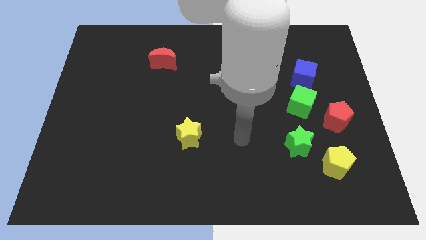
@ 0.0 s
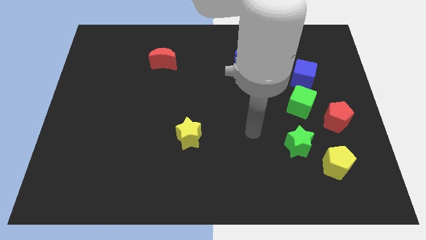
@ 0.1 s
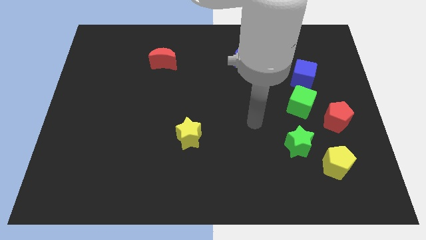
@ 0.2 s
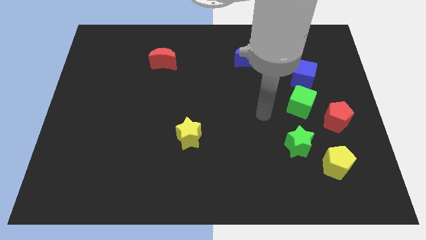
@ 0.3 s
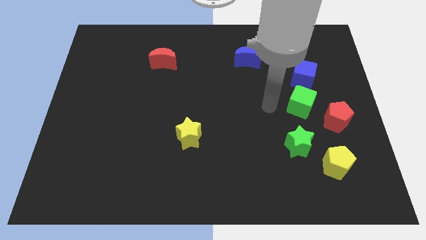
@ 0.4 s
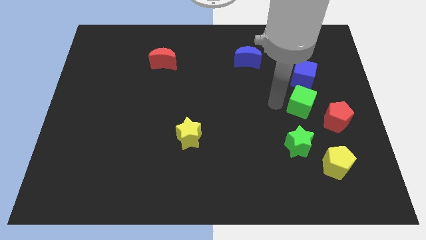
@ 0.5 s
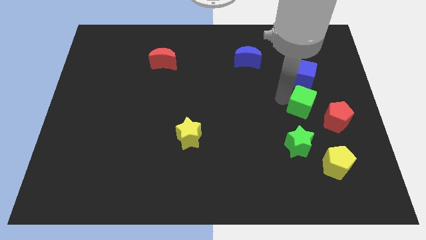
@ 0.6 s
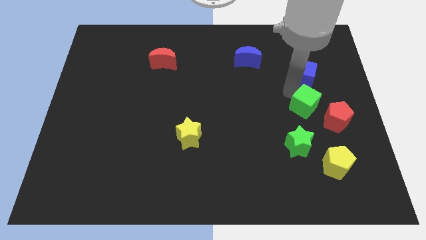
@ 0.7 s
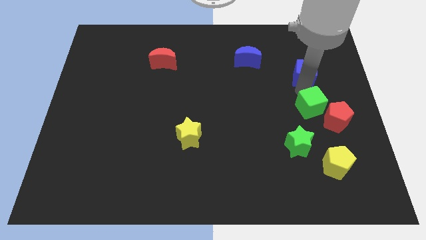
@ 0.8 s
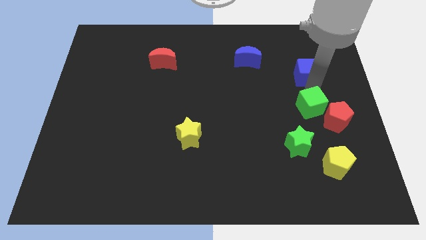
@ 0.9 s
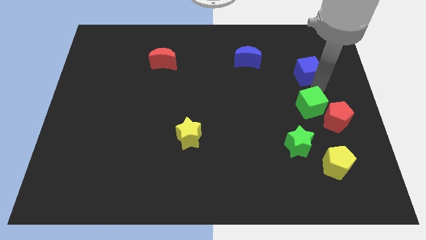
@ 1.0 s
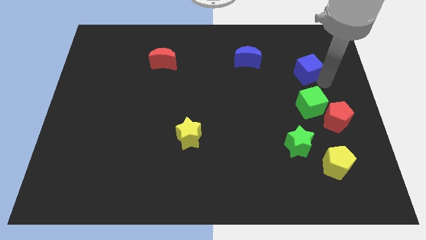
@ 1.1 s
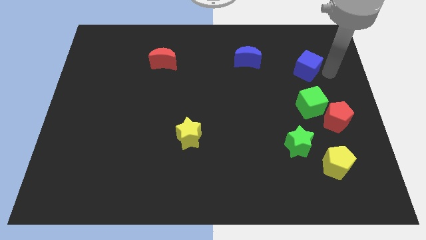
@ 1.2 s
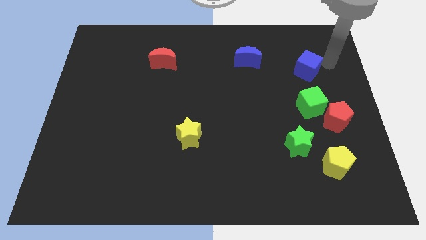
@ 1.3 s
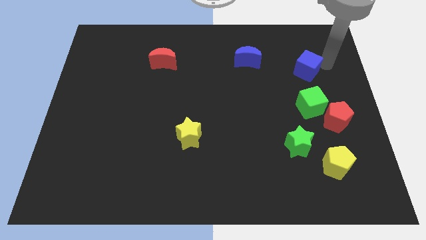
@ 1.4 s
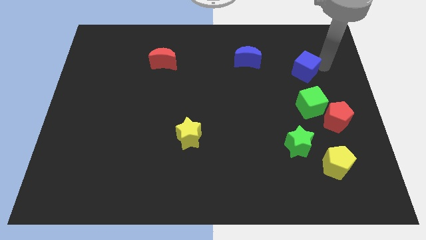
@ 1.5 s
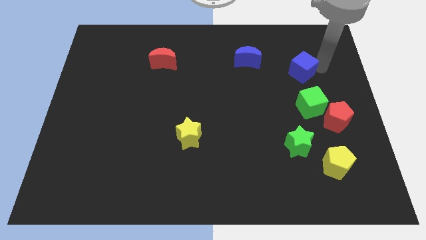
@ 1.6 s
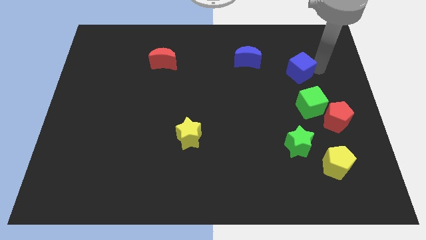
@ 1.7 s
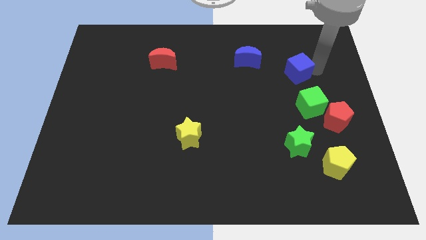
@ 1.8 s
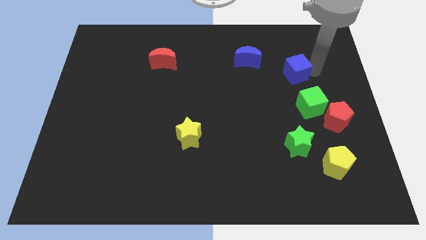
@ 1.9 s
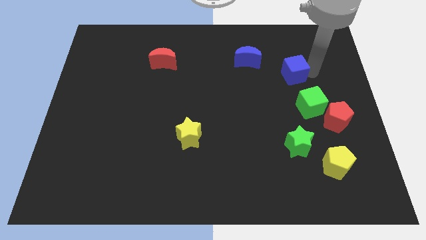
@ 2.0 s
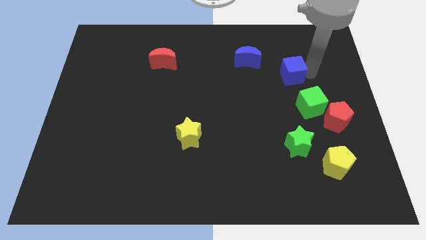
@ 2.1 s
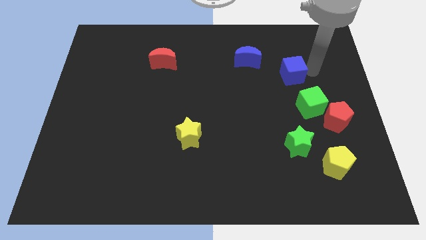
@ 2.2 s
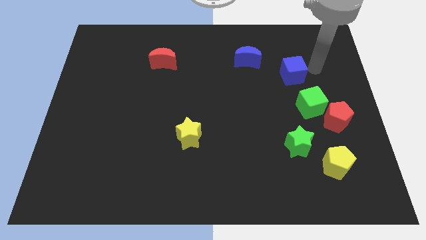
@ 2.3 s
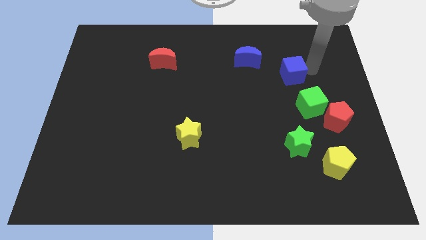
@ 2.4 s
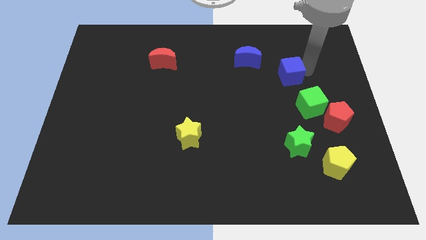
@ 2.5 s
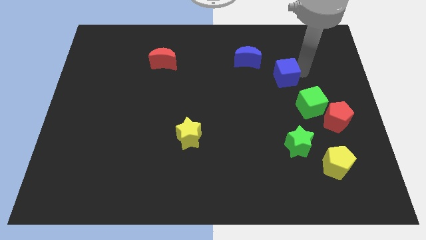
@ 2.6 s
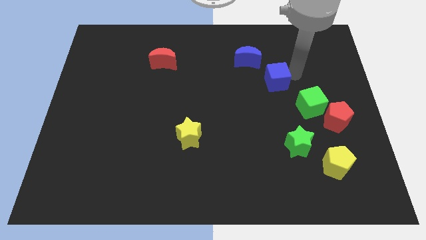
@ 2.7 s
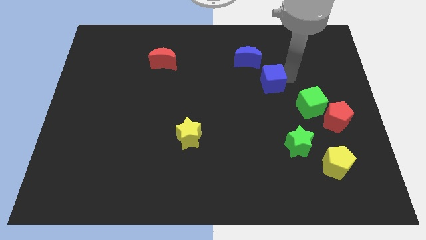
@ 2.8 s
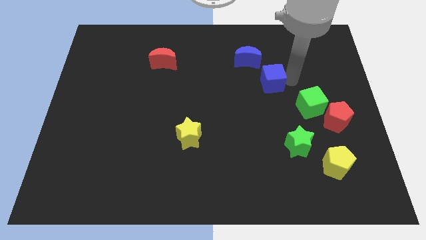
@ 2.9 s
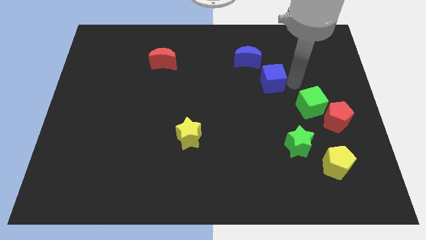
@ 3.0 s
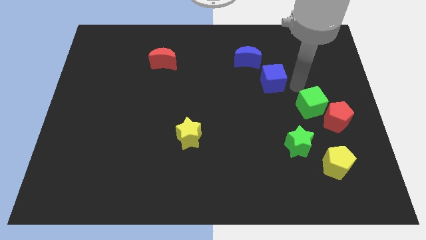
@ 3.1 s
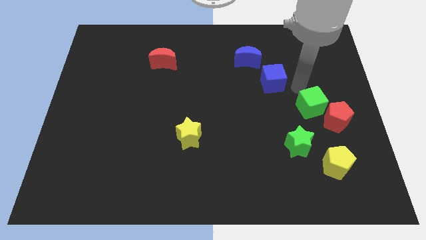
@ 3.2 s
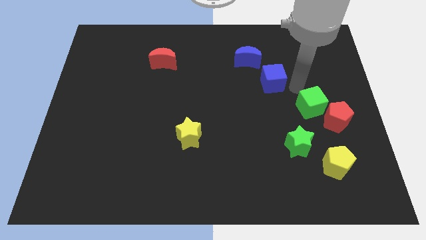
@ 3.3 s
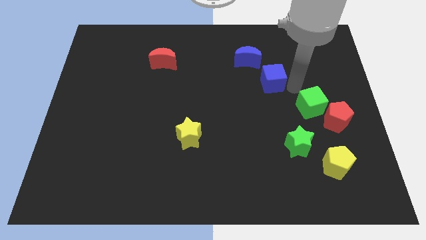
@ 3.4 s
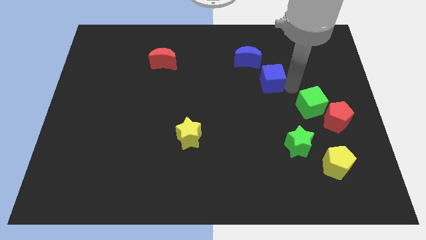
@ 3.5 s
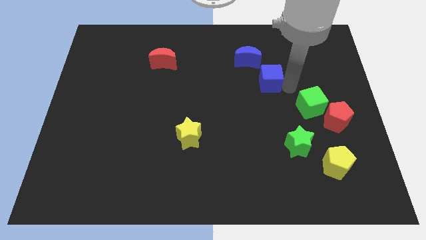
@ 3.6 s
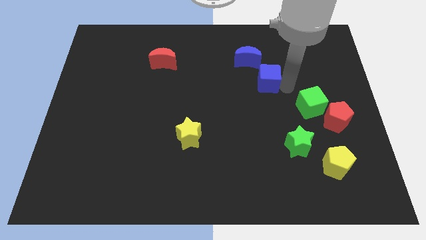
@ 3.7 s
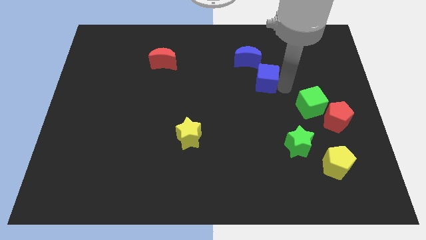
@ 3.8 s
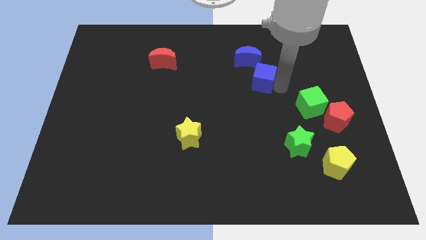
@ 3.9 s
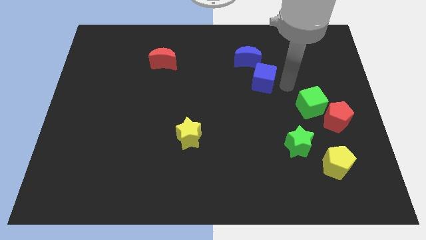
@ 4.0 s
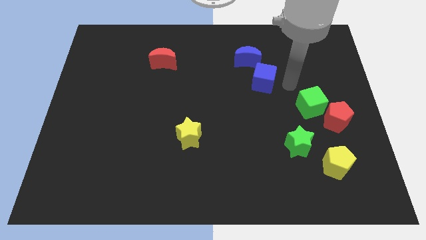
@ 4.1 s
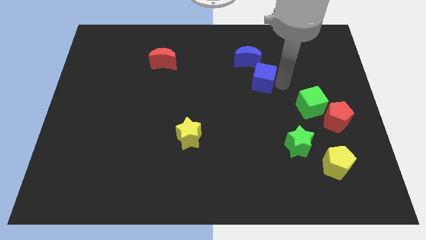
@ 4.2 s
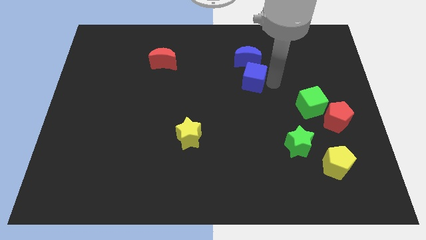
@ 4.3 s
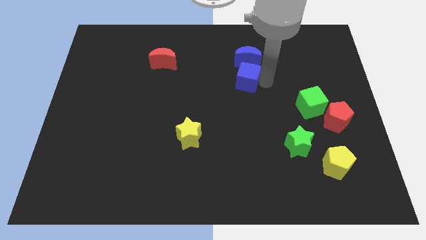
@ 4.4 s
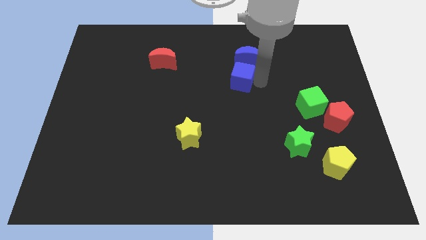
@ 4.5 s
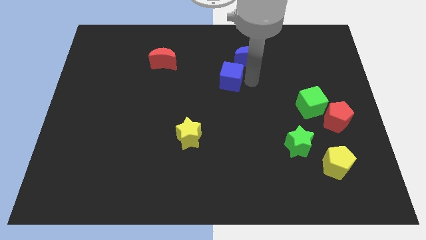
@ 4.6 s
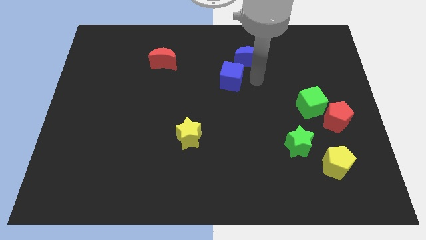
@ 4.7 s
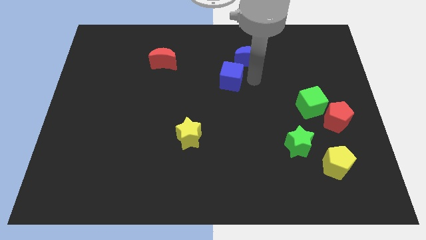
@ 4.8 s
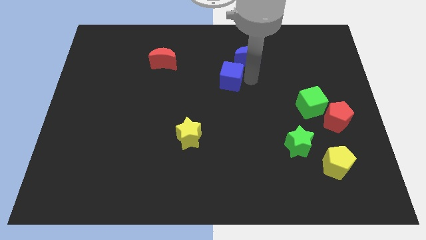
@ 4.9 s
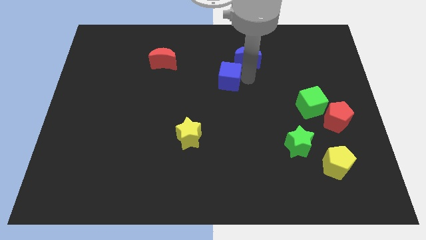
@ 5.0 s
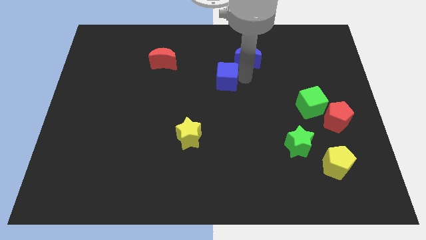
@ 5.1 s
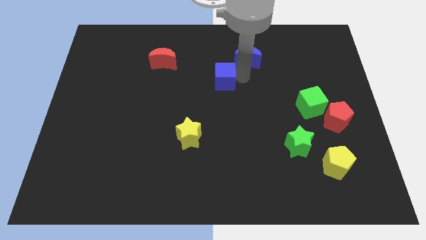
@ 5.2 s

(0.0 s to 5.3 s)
push the blue cube left

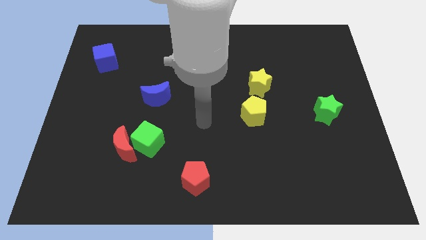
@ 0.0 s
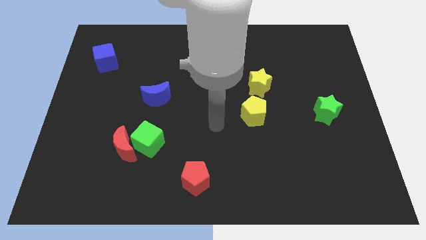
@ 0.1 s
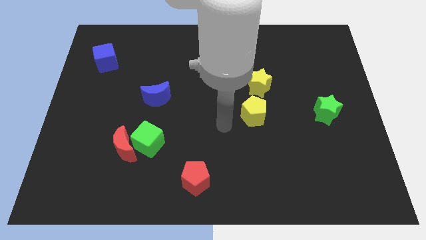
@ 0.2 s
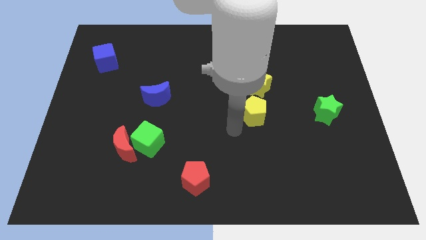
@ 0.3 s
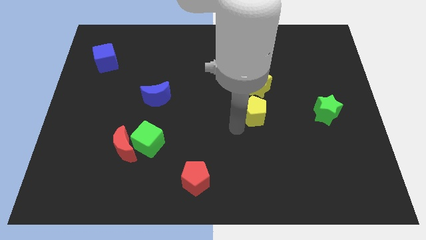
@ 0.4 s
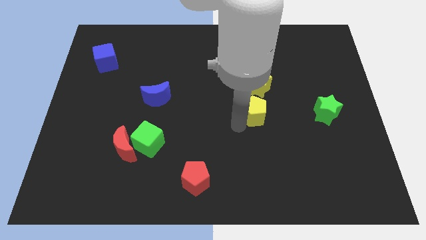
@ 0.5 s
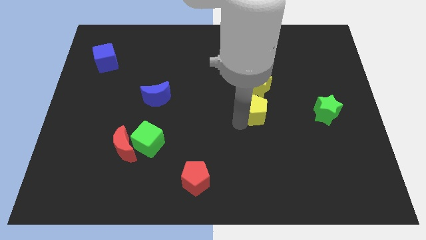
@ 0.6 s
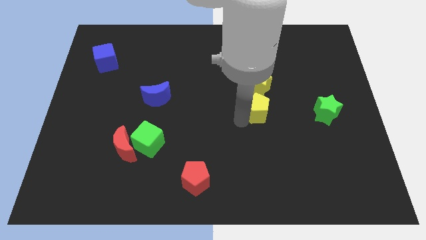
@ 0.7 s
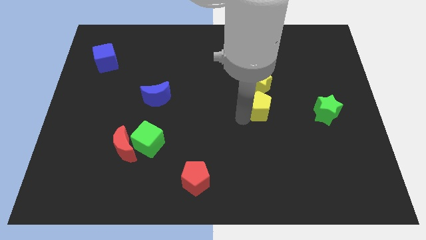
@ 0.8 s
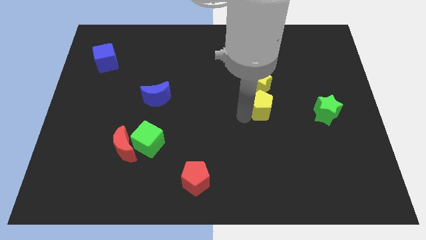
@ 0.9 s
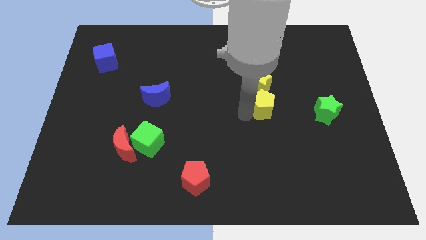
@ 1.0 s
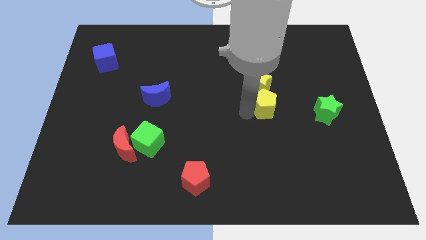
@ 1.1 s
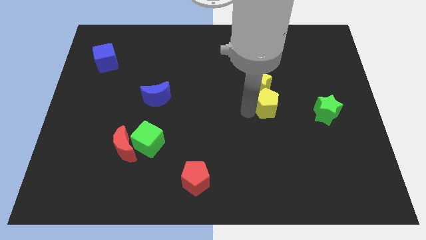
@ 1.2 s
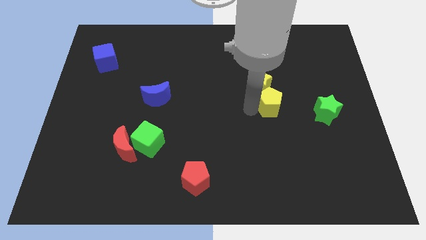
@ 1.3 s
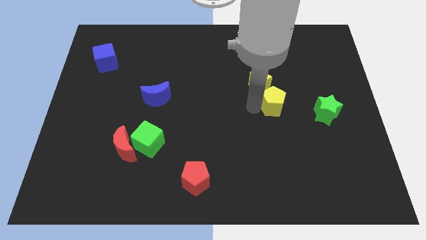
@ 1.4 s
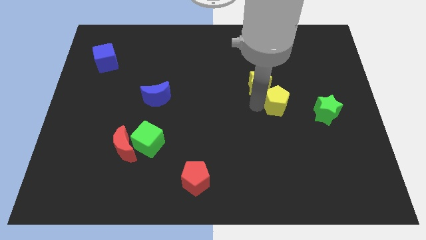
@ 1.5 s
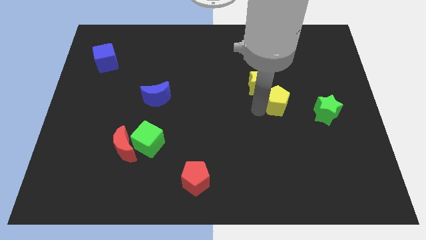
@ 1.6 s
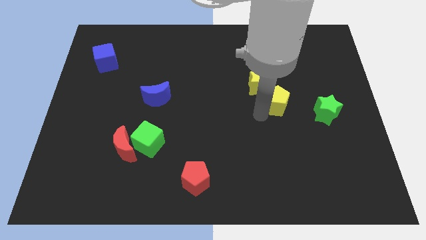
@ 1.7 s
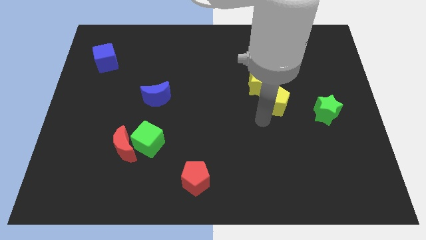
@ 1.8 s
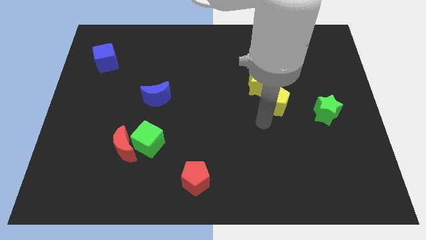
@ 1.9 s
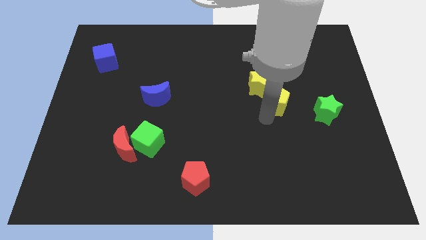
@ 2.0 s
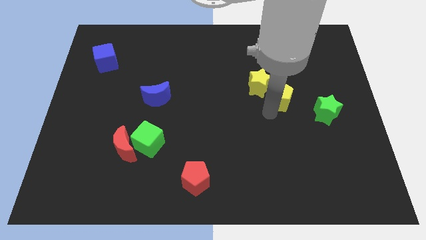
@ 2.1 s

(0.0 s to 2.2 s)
slide the yellow pentagon diagonally up and to the right a little

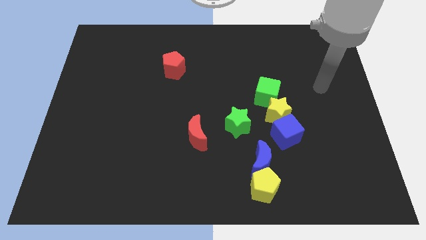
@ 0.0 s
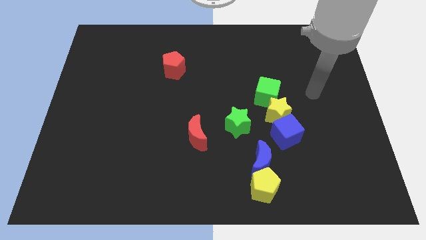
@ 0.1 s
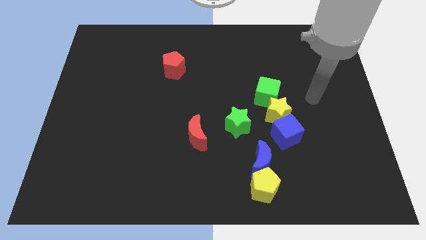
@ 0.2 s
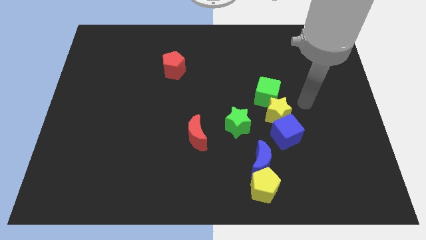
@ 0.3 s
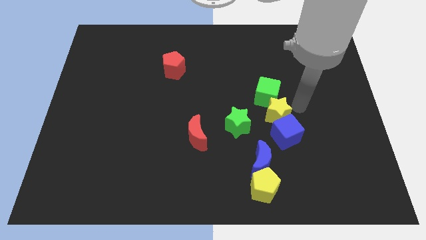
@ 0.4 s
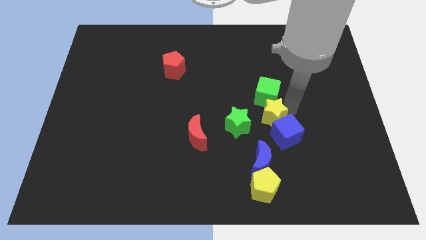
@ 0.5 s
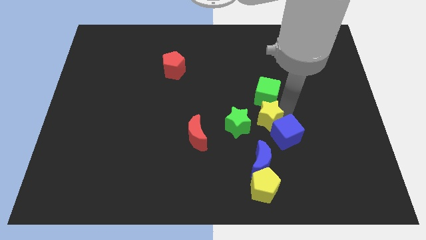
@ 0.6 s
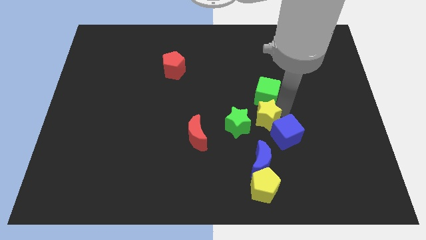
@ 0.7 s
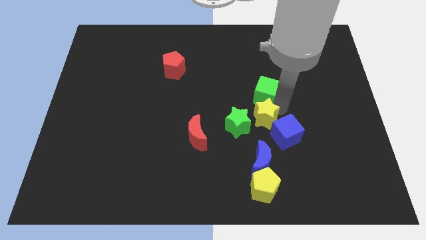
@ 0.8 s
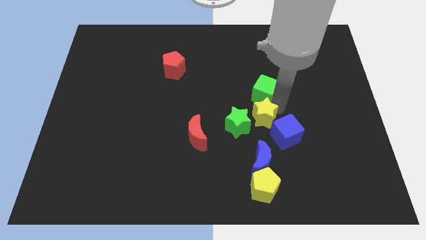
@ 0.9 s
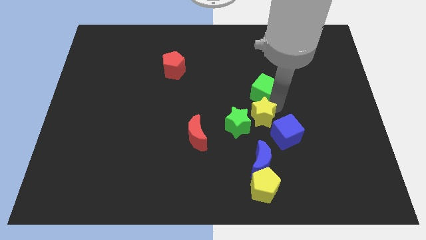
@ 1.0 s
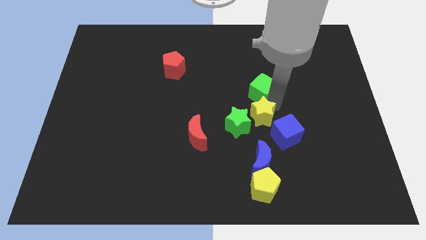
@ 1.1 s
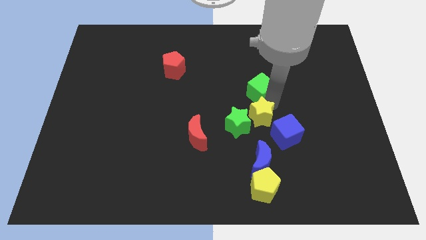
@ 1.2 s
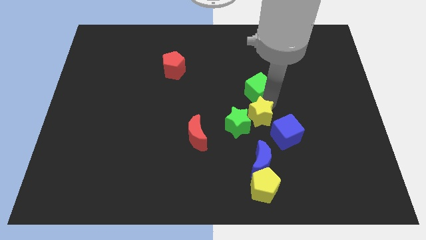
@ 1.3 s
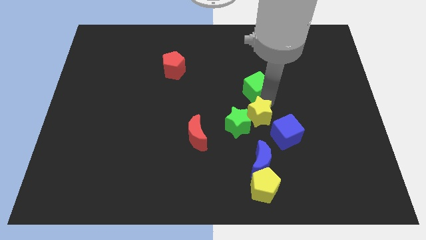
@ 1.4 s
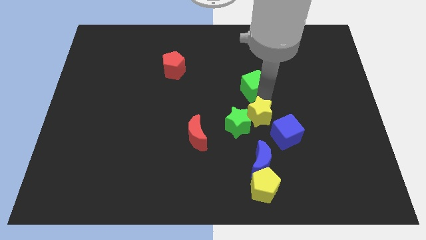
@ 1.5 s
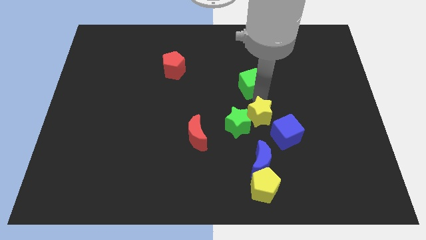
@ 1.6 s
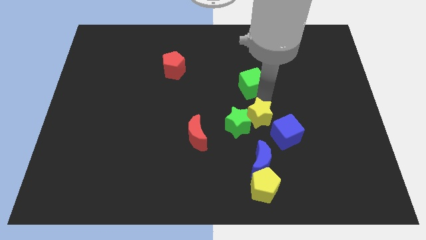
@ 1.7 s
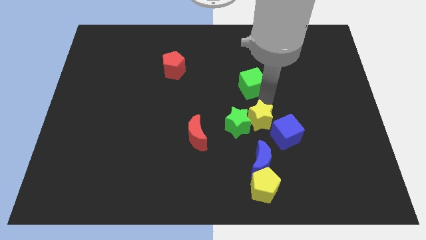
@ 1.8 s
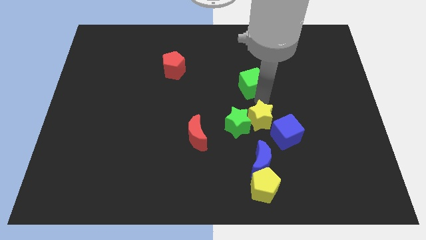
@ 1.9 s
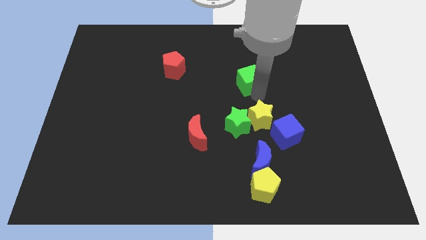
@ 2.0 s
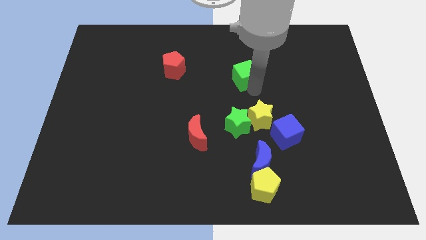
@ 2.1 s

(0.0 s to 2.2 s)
push the green cube up and to the left somewhat
